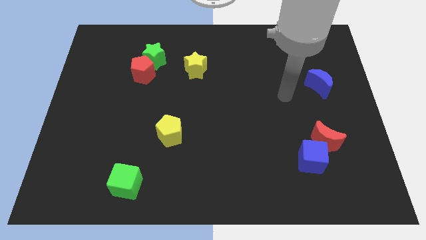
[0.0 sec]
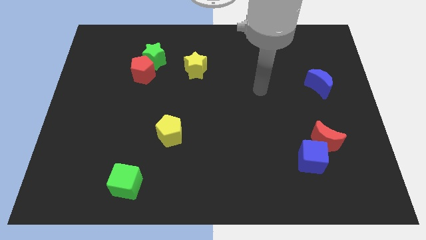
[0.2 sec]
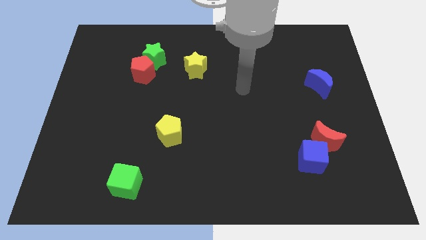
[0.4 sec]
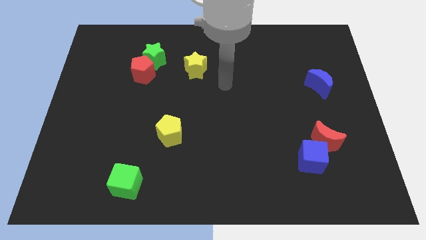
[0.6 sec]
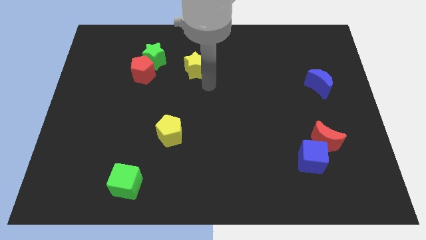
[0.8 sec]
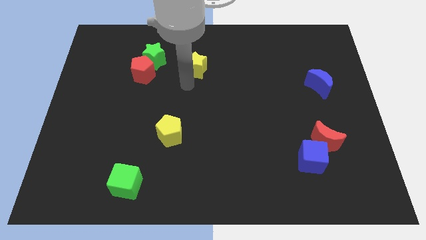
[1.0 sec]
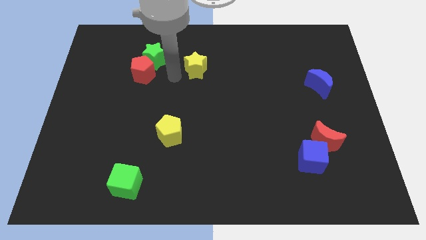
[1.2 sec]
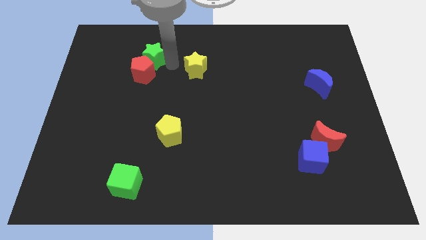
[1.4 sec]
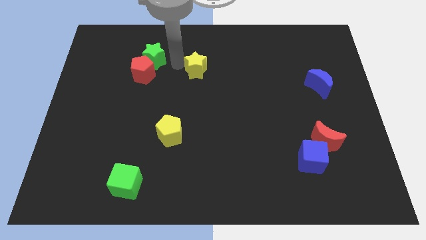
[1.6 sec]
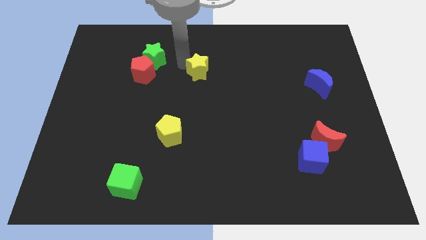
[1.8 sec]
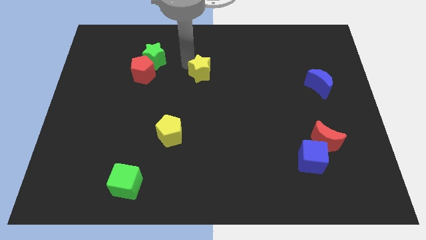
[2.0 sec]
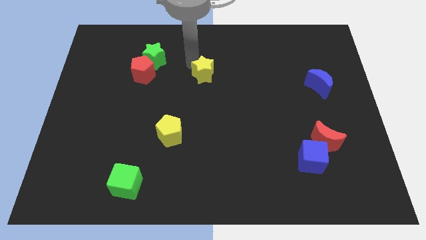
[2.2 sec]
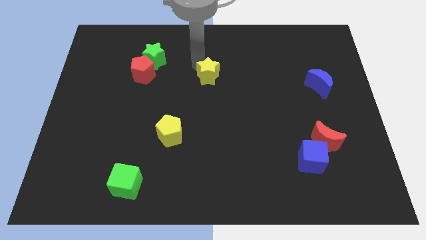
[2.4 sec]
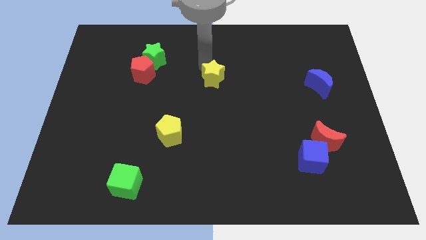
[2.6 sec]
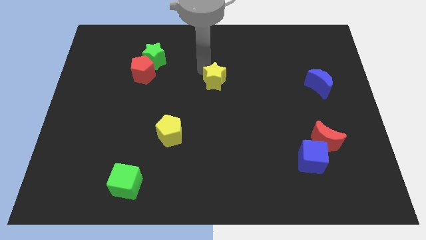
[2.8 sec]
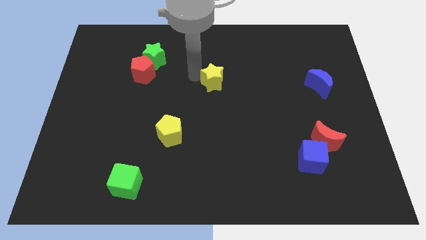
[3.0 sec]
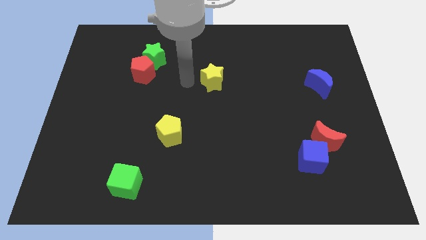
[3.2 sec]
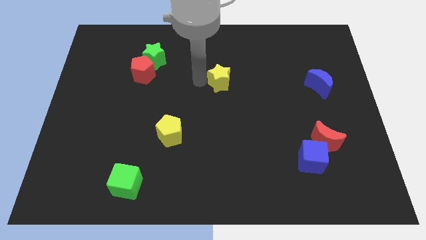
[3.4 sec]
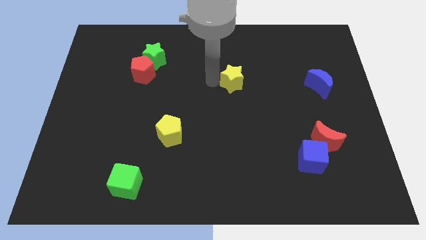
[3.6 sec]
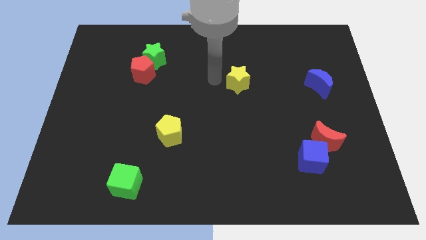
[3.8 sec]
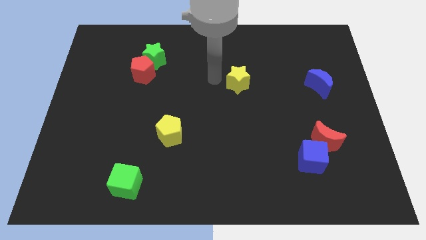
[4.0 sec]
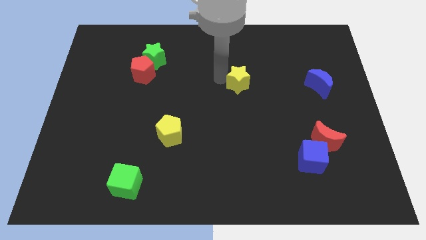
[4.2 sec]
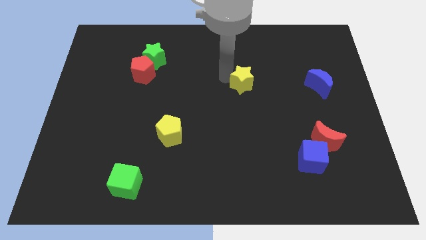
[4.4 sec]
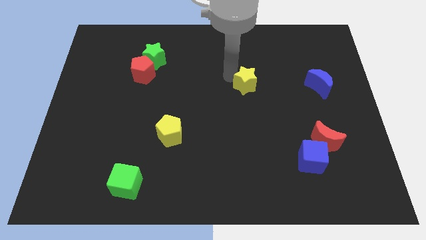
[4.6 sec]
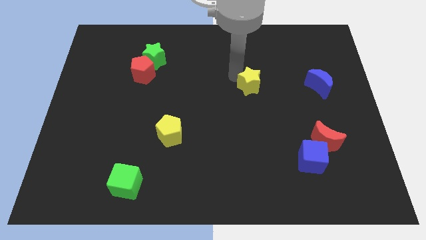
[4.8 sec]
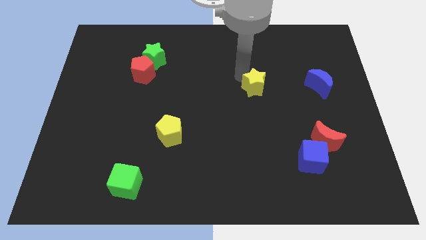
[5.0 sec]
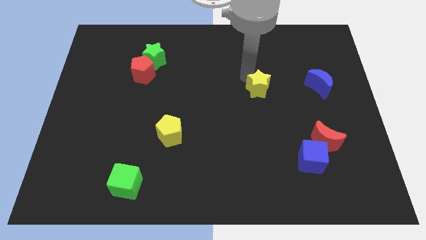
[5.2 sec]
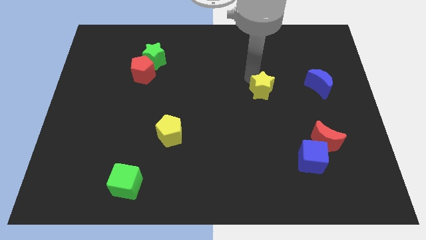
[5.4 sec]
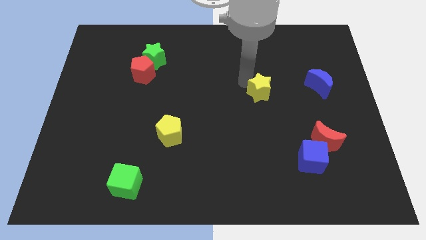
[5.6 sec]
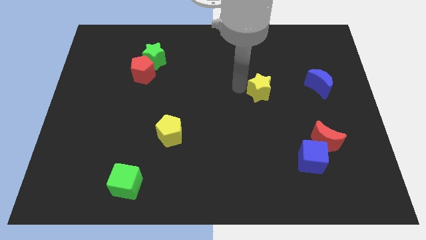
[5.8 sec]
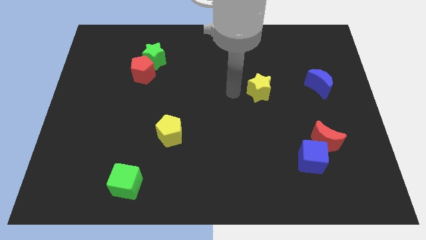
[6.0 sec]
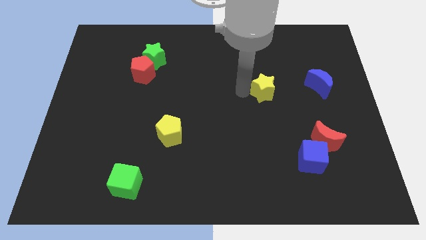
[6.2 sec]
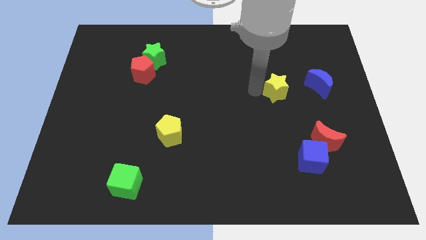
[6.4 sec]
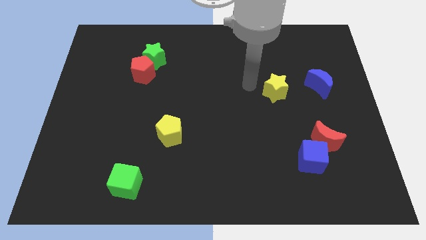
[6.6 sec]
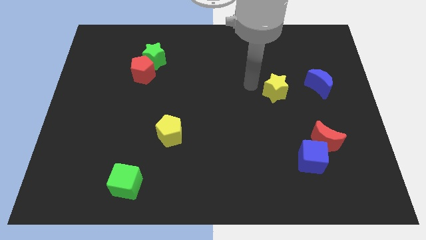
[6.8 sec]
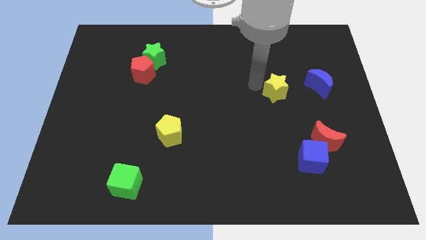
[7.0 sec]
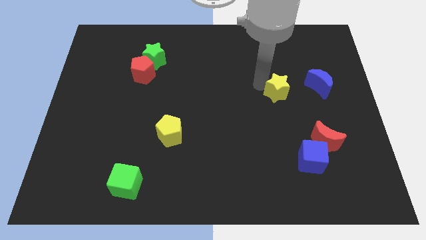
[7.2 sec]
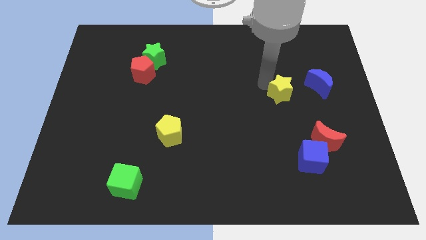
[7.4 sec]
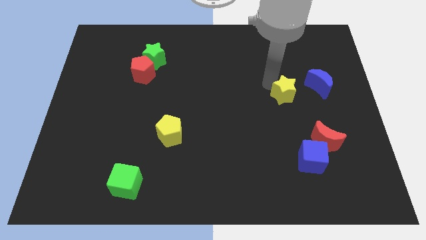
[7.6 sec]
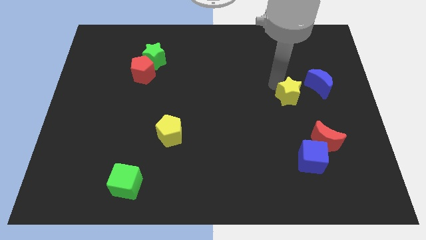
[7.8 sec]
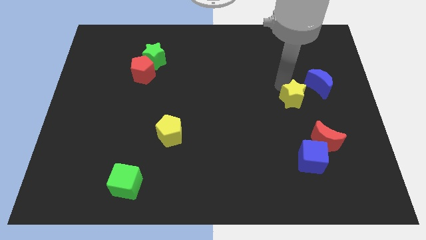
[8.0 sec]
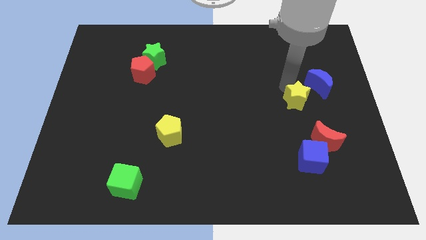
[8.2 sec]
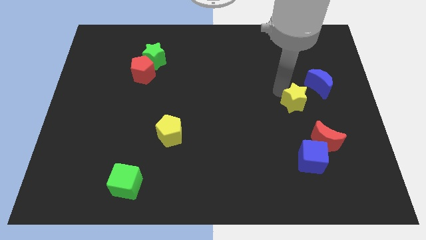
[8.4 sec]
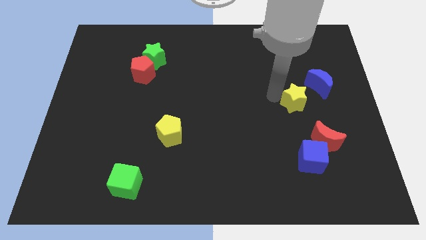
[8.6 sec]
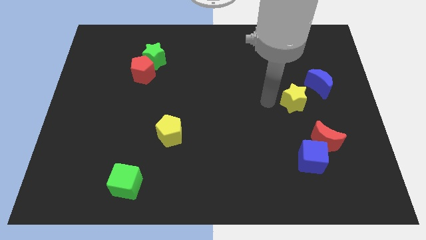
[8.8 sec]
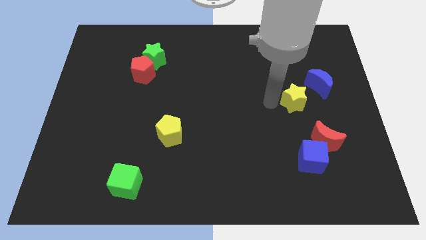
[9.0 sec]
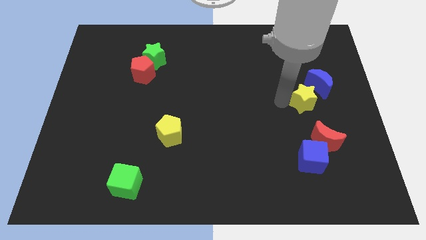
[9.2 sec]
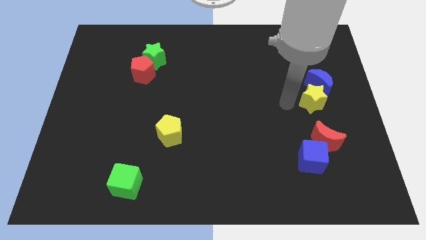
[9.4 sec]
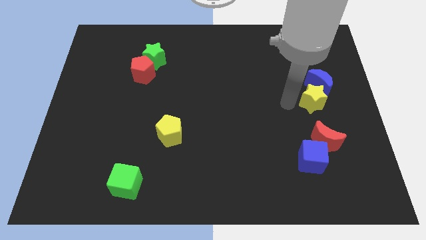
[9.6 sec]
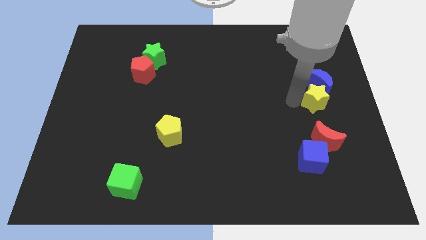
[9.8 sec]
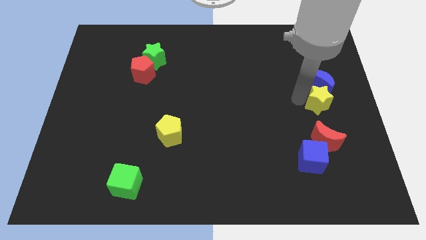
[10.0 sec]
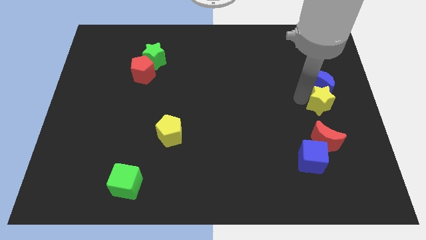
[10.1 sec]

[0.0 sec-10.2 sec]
put the yellow star to the right side of the board

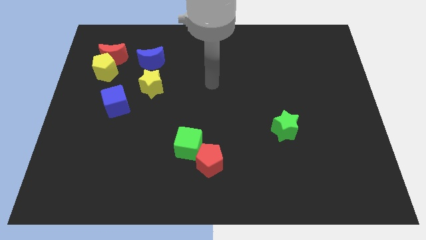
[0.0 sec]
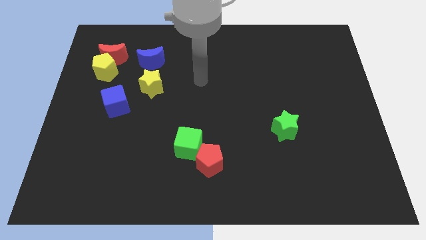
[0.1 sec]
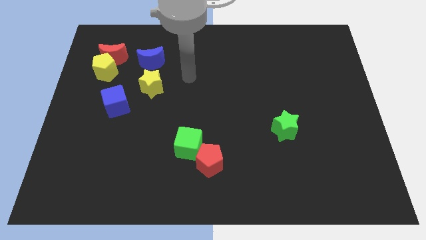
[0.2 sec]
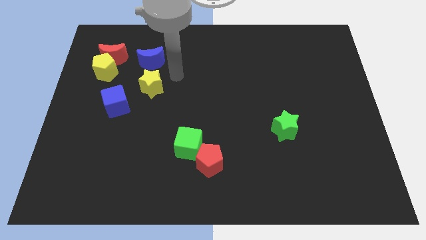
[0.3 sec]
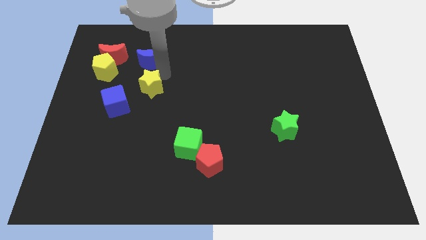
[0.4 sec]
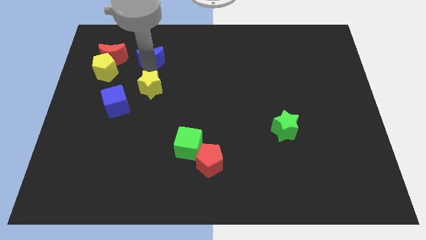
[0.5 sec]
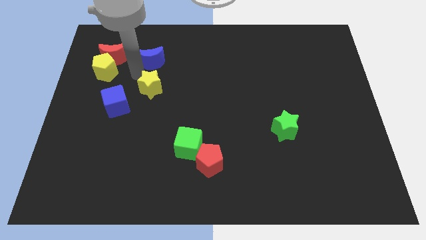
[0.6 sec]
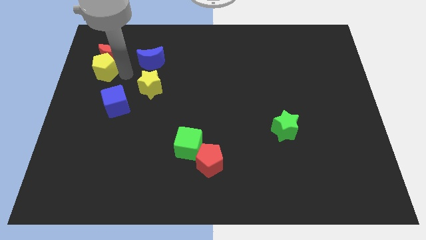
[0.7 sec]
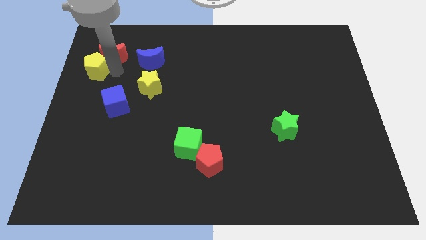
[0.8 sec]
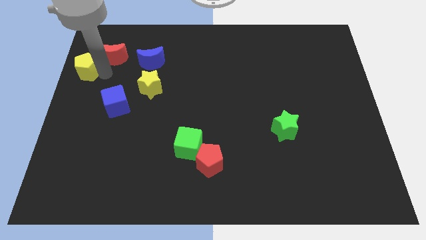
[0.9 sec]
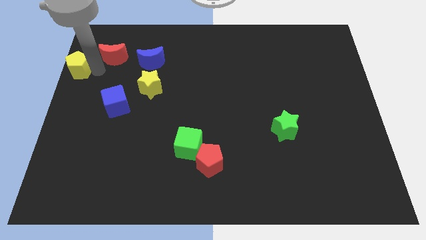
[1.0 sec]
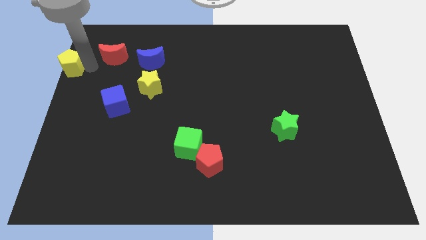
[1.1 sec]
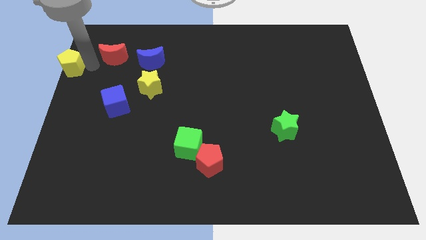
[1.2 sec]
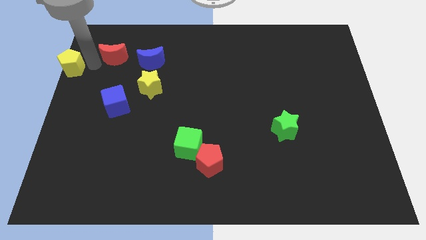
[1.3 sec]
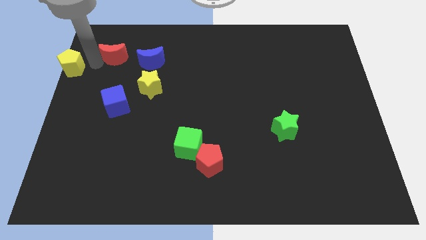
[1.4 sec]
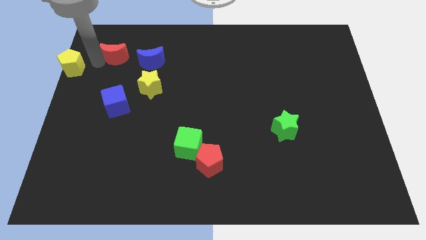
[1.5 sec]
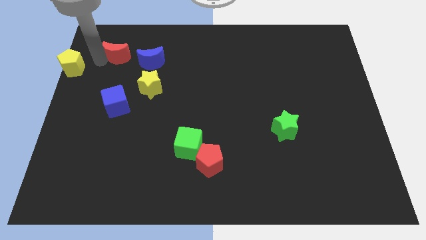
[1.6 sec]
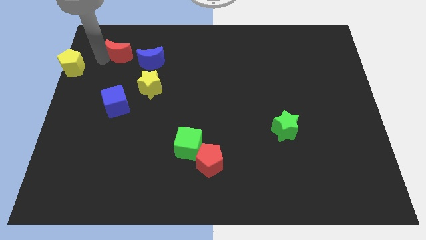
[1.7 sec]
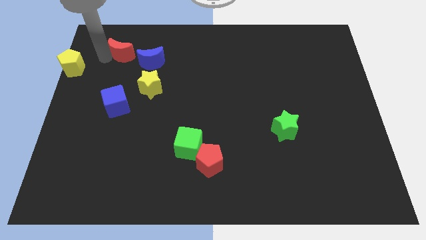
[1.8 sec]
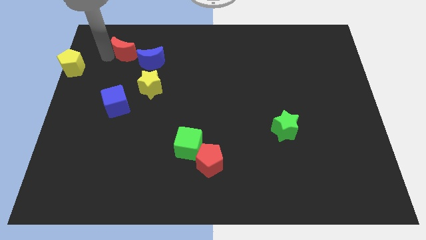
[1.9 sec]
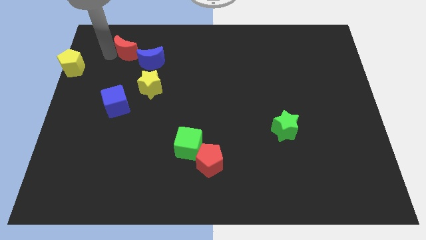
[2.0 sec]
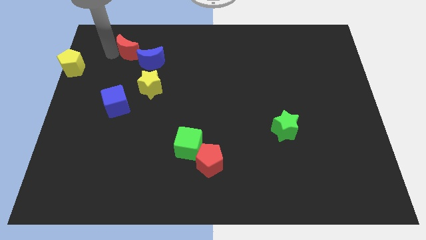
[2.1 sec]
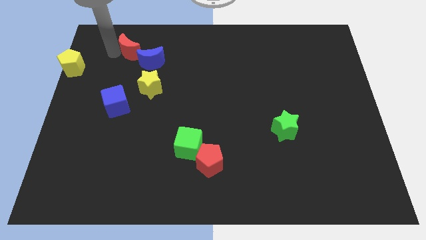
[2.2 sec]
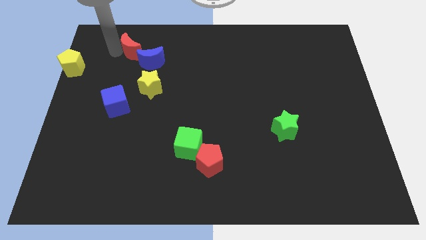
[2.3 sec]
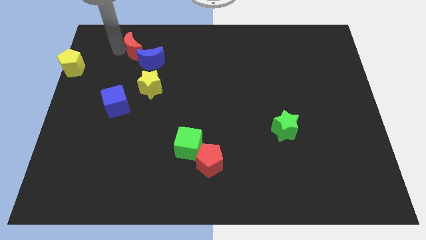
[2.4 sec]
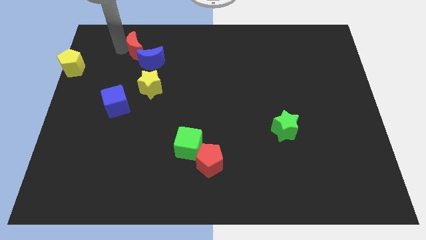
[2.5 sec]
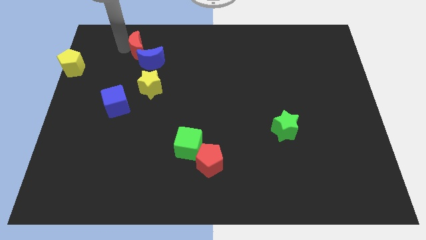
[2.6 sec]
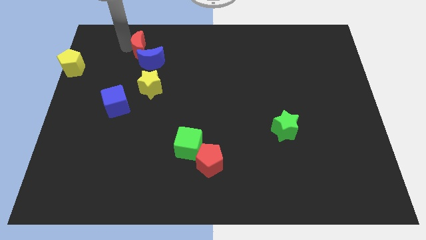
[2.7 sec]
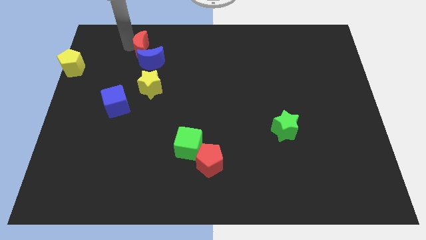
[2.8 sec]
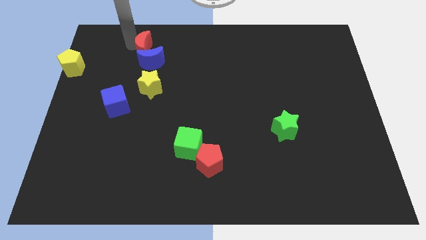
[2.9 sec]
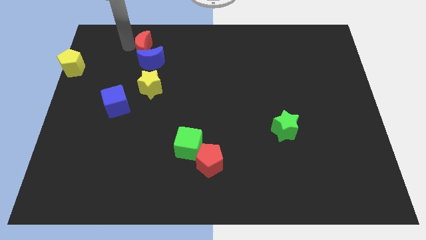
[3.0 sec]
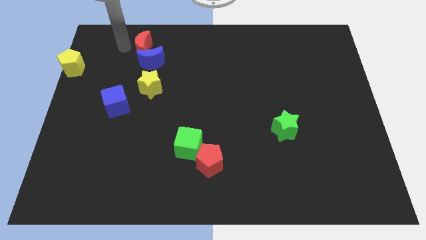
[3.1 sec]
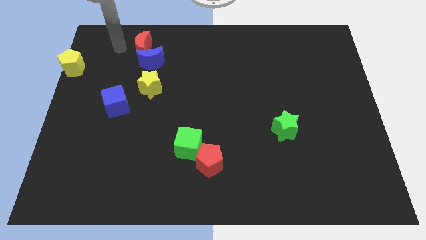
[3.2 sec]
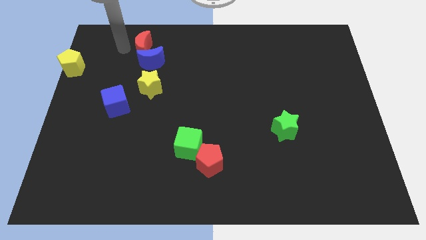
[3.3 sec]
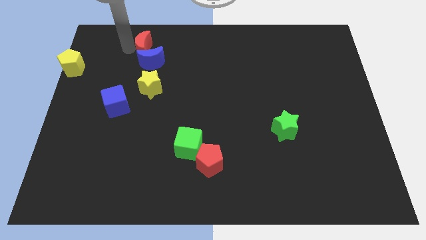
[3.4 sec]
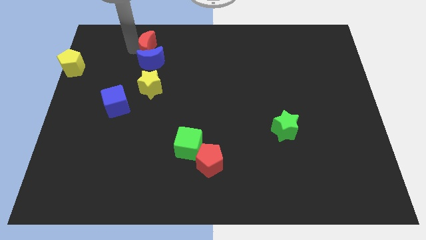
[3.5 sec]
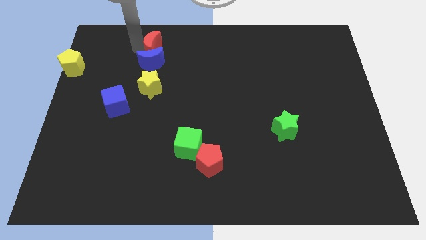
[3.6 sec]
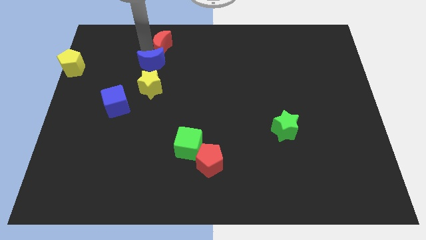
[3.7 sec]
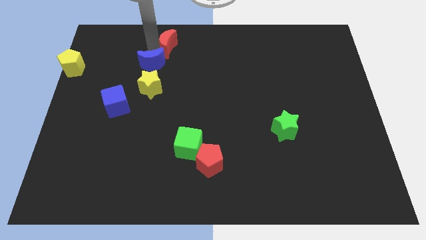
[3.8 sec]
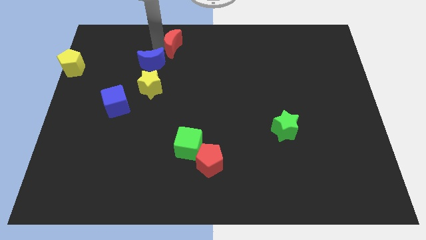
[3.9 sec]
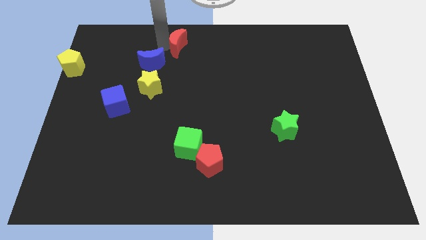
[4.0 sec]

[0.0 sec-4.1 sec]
move the red moon to the towards your base
